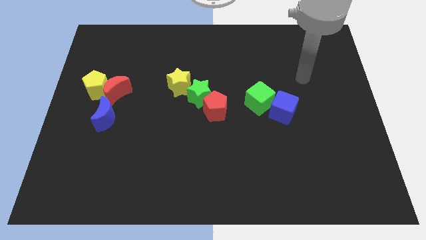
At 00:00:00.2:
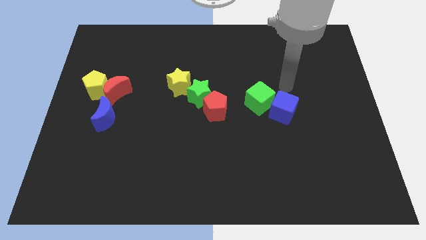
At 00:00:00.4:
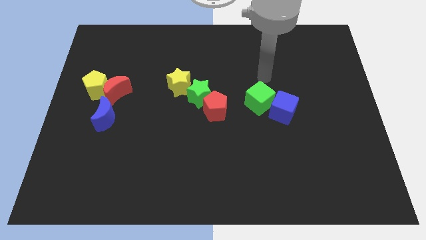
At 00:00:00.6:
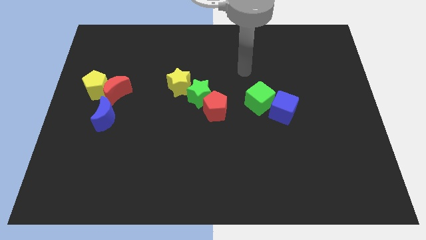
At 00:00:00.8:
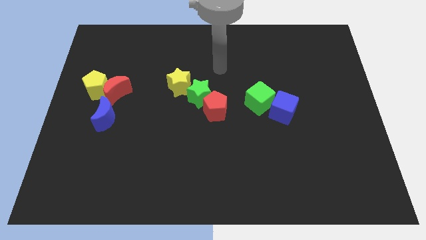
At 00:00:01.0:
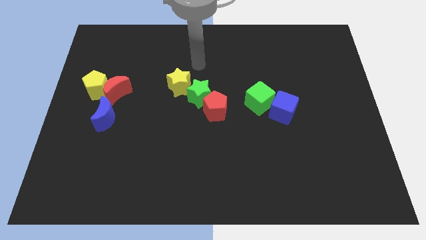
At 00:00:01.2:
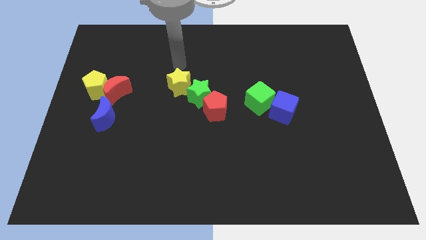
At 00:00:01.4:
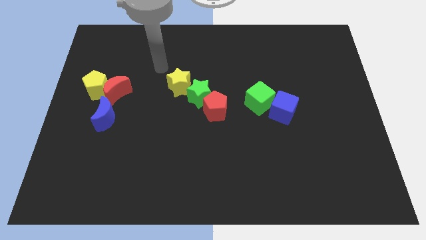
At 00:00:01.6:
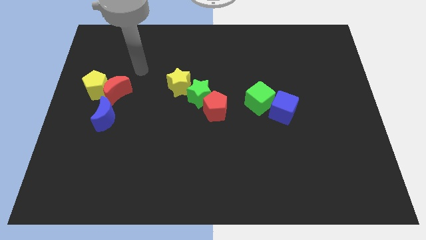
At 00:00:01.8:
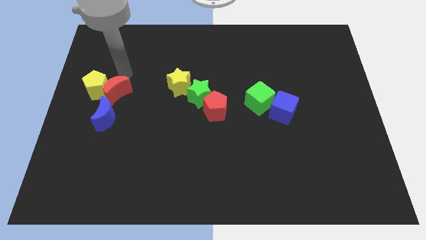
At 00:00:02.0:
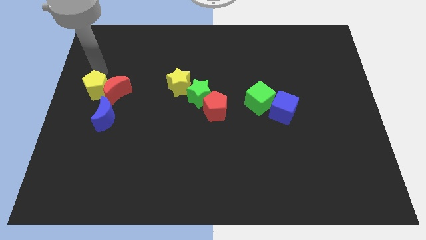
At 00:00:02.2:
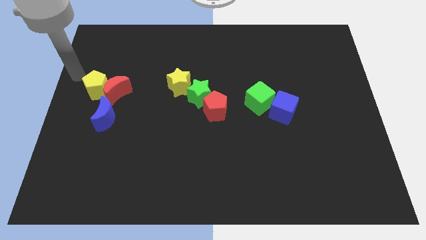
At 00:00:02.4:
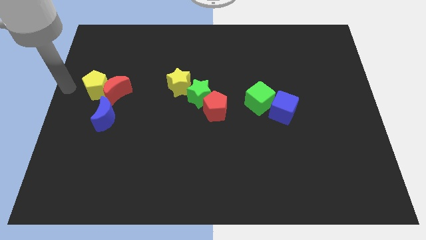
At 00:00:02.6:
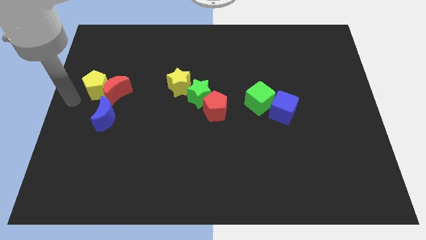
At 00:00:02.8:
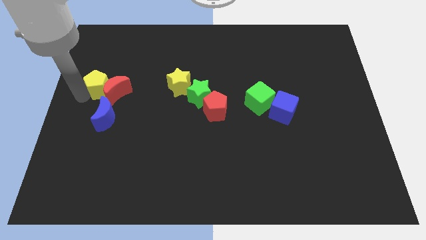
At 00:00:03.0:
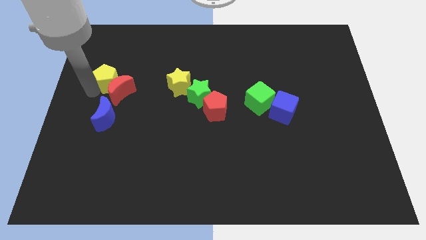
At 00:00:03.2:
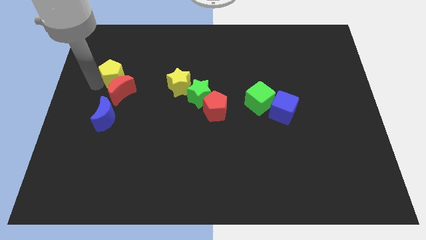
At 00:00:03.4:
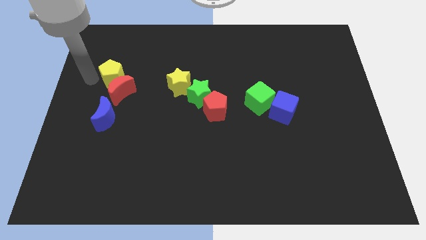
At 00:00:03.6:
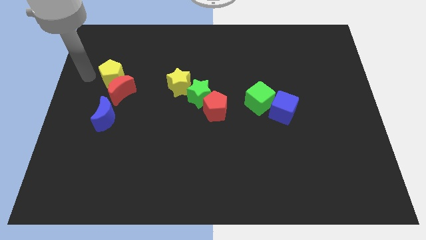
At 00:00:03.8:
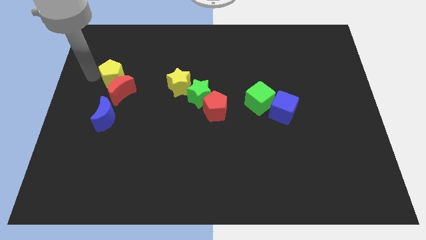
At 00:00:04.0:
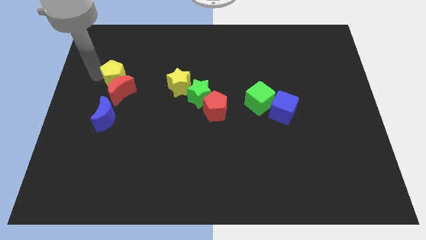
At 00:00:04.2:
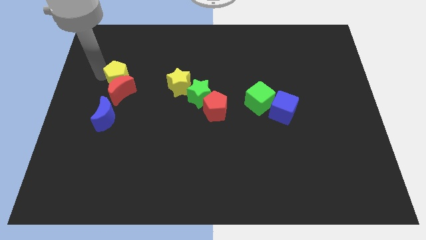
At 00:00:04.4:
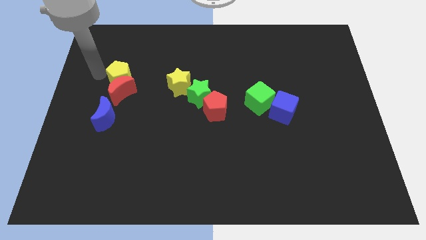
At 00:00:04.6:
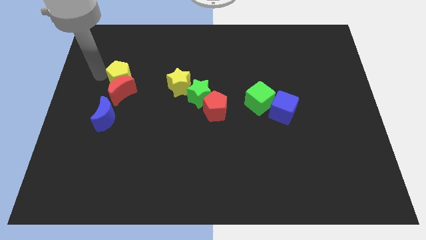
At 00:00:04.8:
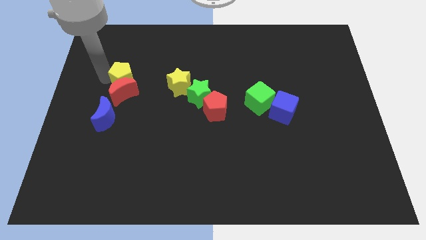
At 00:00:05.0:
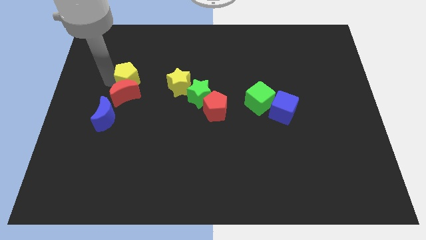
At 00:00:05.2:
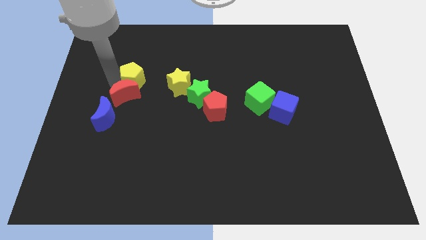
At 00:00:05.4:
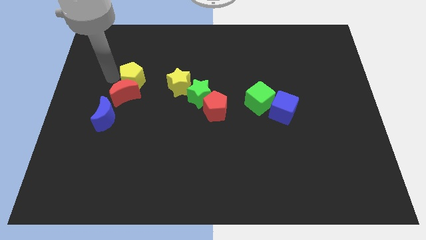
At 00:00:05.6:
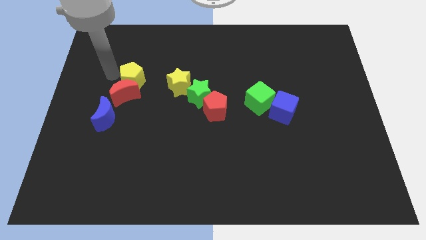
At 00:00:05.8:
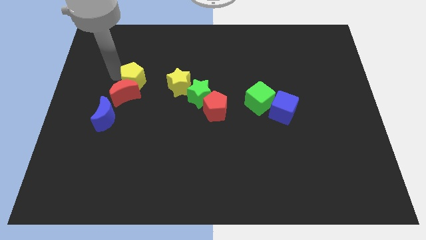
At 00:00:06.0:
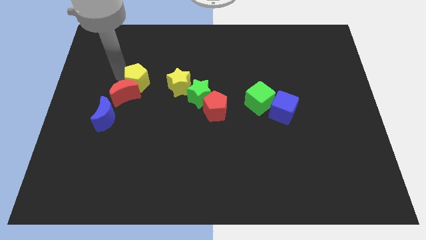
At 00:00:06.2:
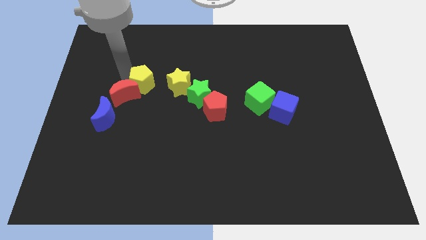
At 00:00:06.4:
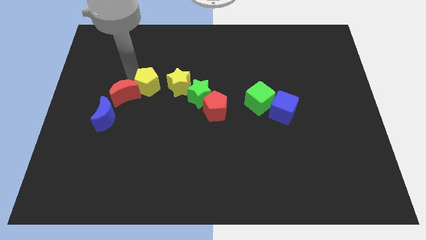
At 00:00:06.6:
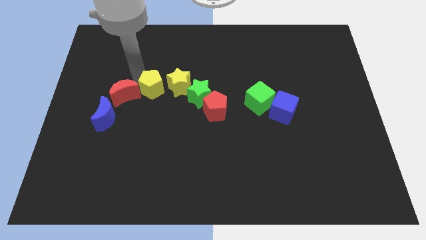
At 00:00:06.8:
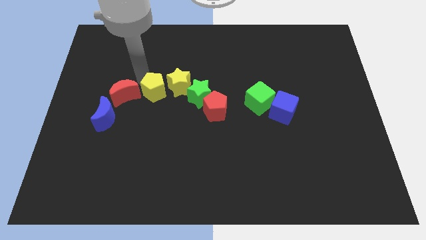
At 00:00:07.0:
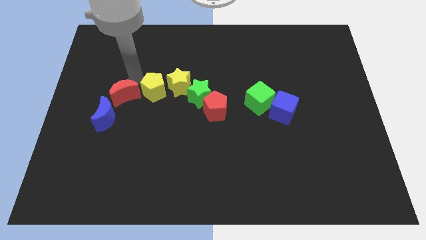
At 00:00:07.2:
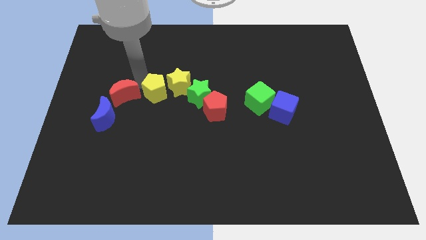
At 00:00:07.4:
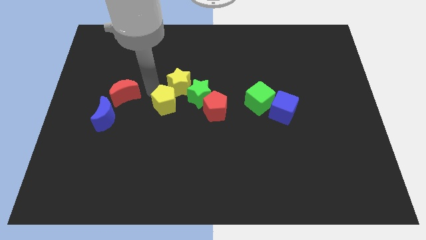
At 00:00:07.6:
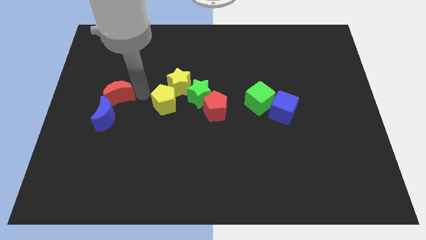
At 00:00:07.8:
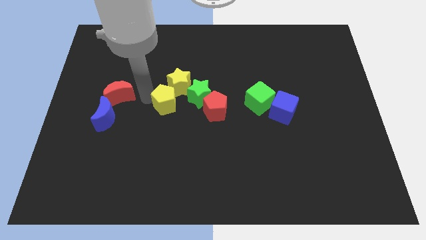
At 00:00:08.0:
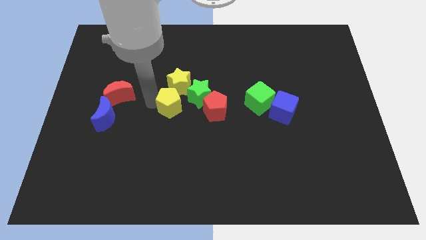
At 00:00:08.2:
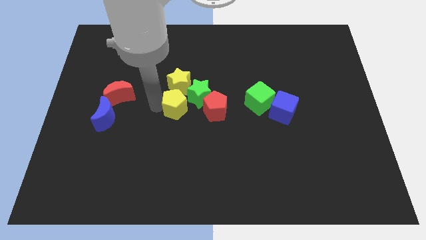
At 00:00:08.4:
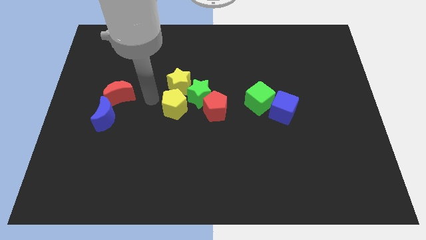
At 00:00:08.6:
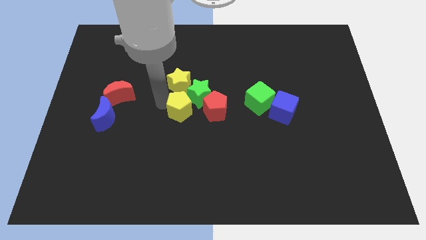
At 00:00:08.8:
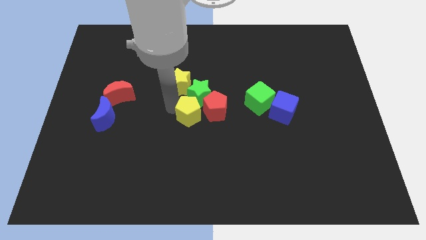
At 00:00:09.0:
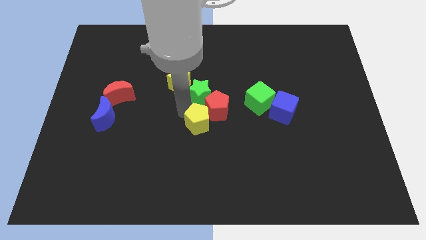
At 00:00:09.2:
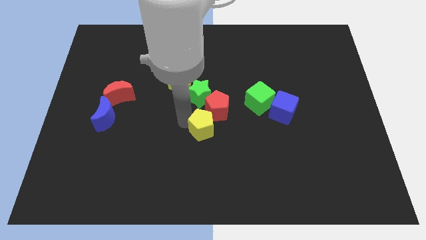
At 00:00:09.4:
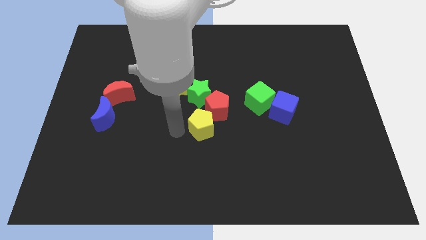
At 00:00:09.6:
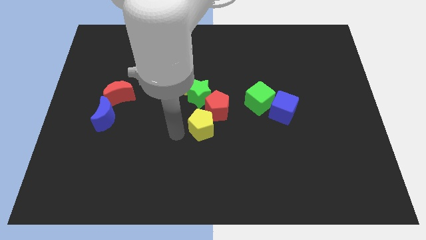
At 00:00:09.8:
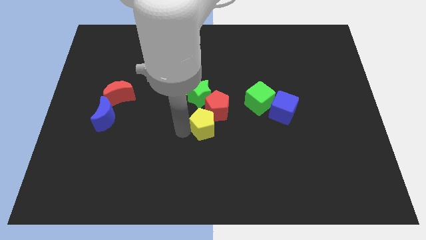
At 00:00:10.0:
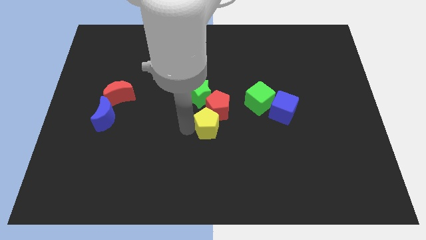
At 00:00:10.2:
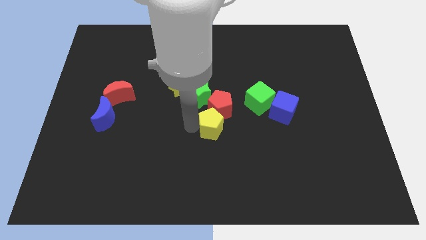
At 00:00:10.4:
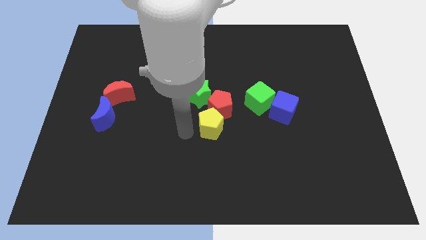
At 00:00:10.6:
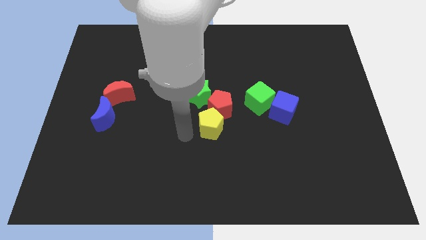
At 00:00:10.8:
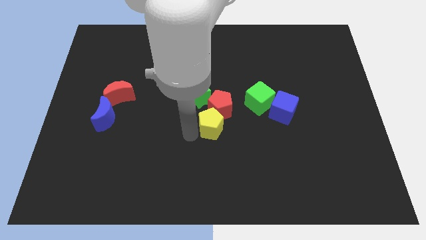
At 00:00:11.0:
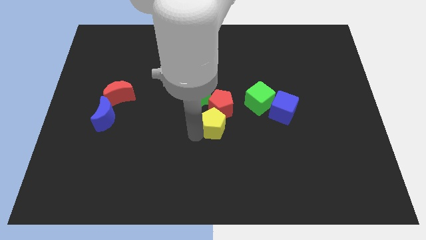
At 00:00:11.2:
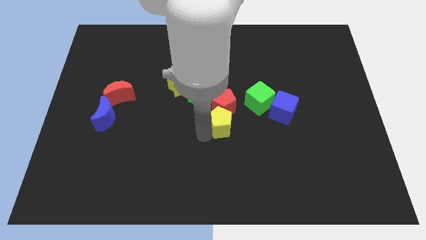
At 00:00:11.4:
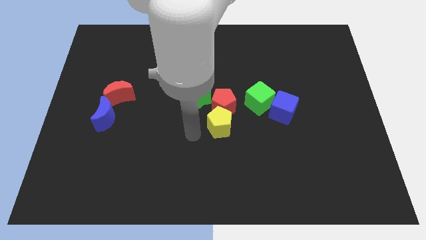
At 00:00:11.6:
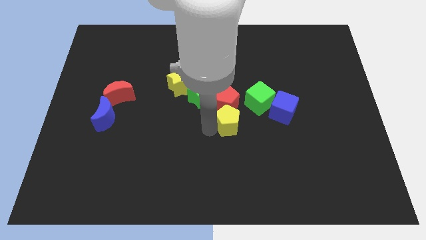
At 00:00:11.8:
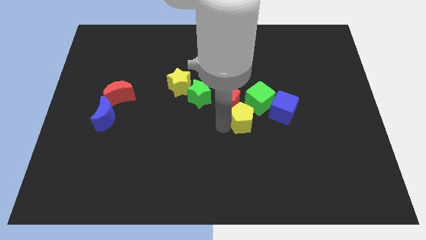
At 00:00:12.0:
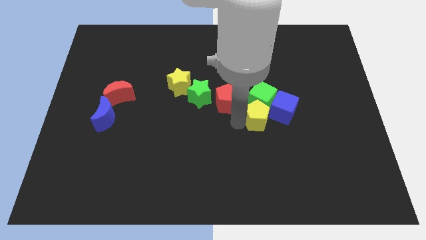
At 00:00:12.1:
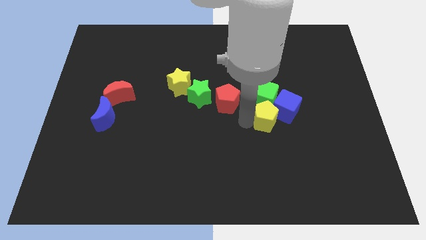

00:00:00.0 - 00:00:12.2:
slide the yellow pentagon close to the blue cube
